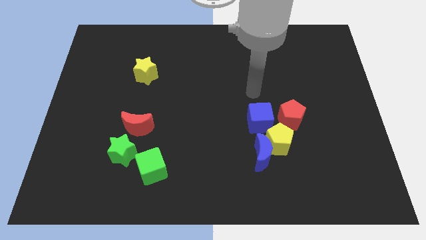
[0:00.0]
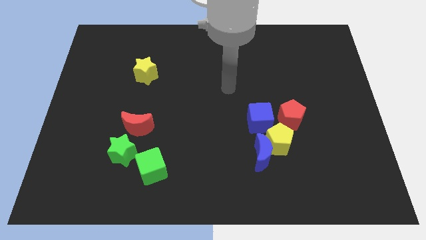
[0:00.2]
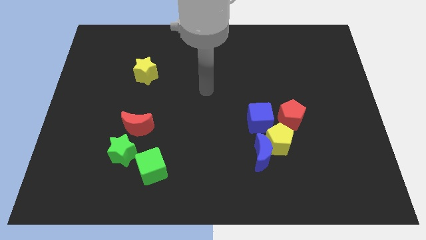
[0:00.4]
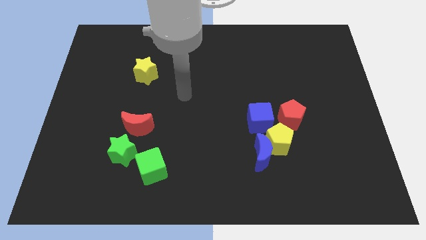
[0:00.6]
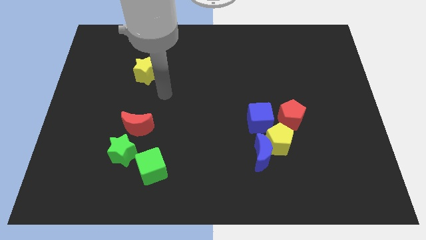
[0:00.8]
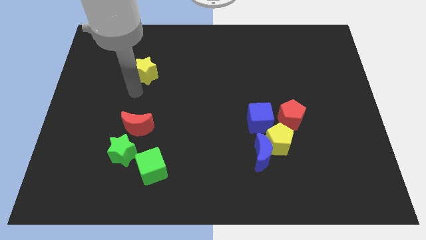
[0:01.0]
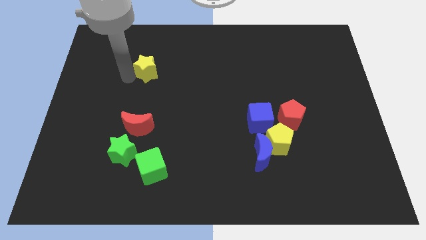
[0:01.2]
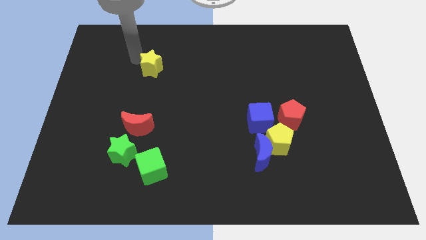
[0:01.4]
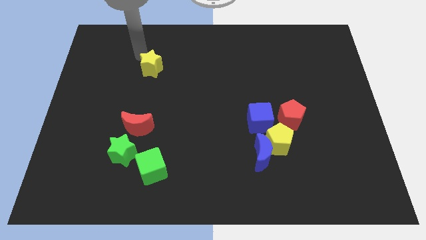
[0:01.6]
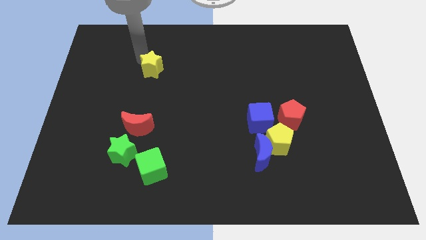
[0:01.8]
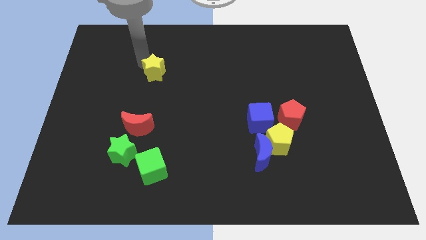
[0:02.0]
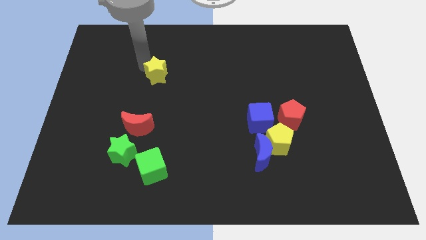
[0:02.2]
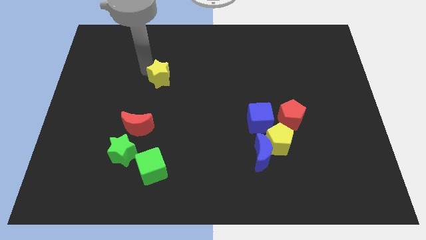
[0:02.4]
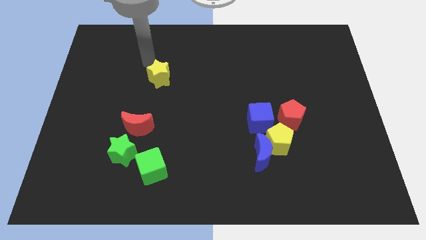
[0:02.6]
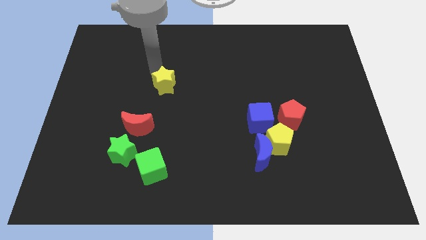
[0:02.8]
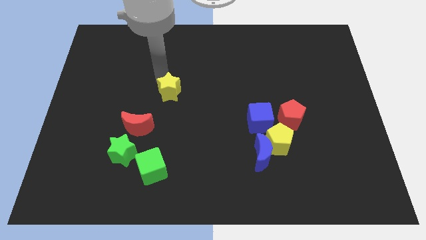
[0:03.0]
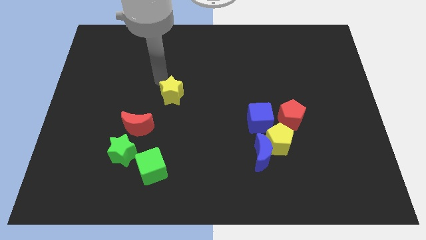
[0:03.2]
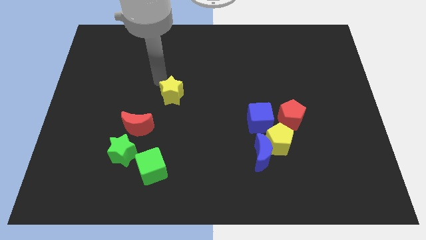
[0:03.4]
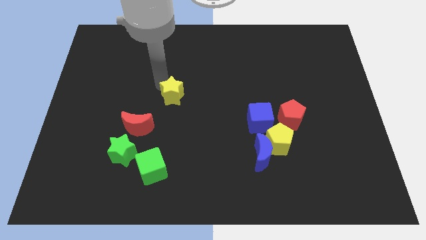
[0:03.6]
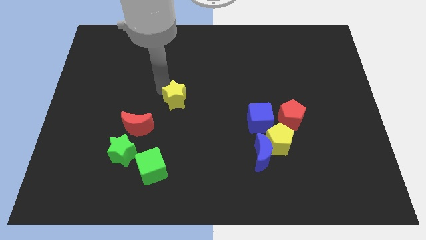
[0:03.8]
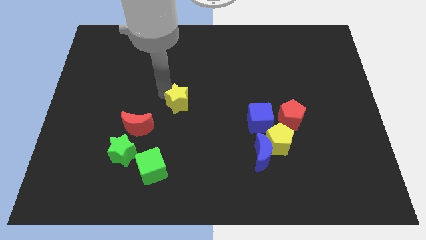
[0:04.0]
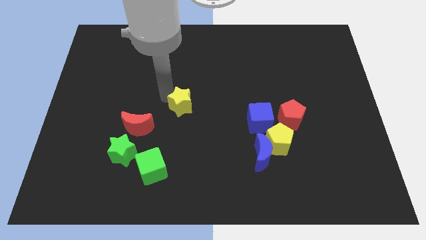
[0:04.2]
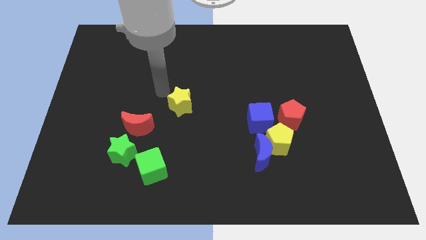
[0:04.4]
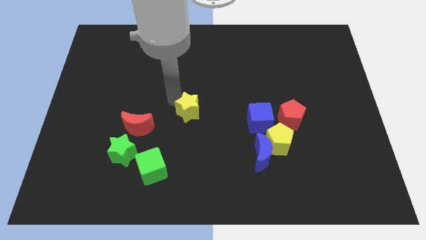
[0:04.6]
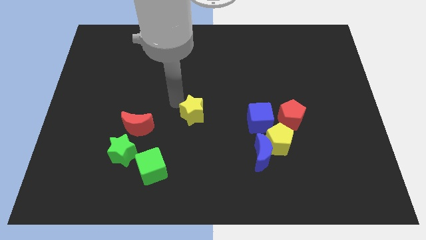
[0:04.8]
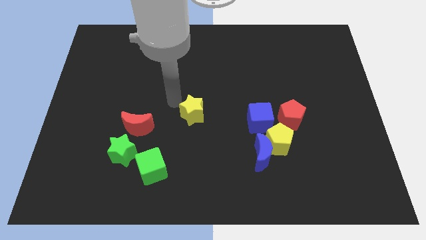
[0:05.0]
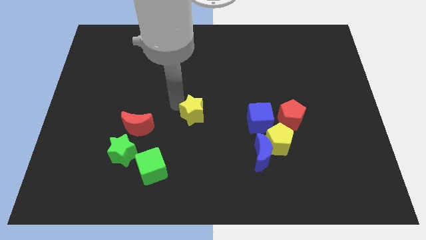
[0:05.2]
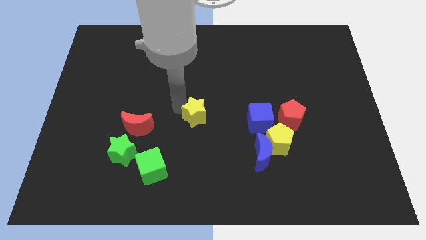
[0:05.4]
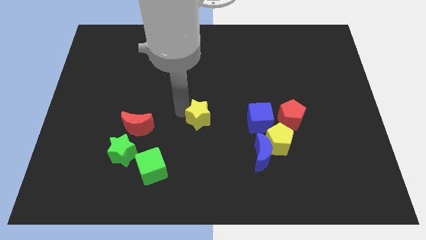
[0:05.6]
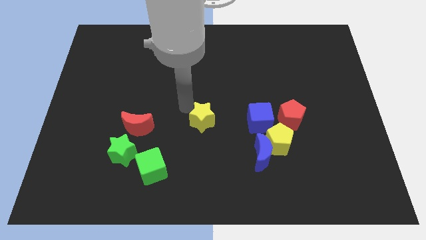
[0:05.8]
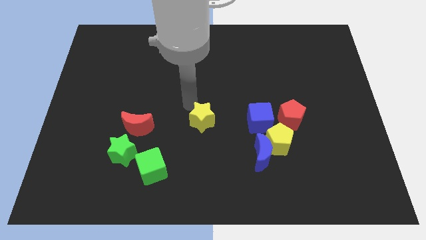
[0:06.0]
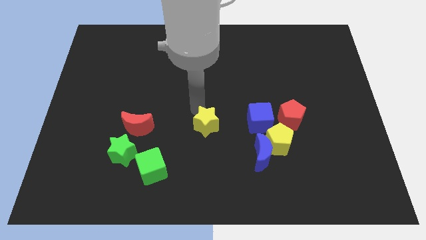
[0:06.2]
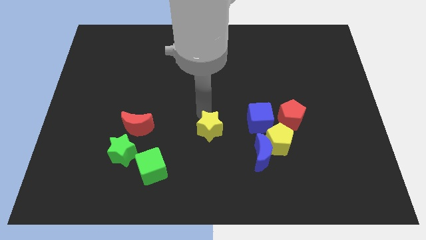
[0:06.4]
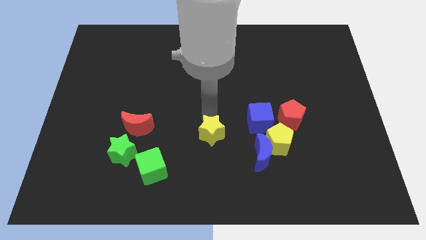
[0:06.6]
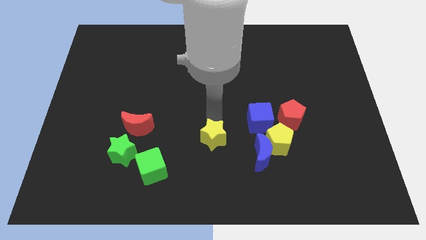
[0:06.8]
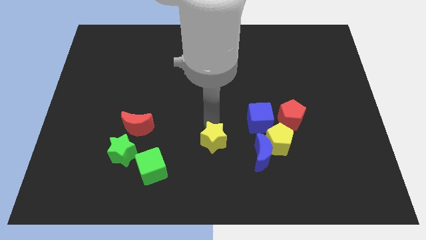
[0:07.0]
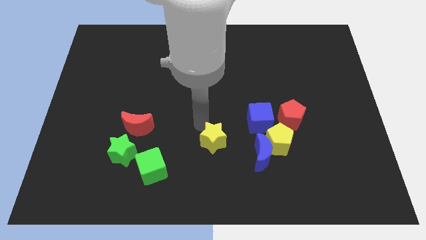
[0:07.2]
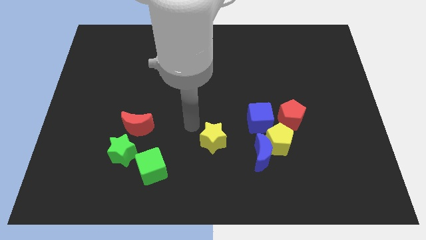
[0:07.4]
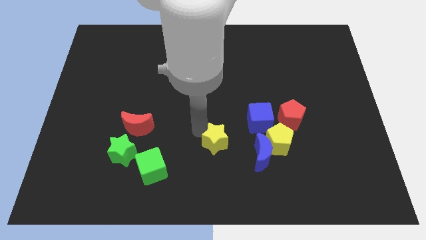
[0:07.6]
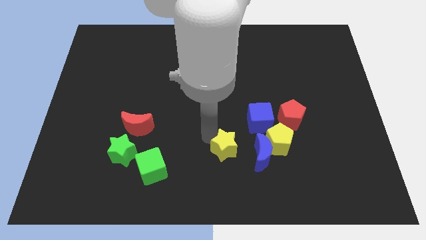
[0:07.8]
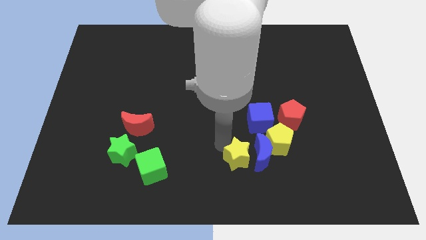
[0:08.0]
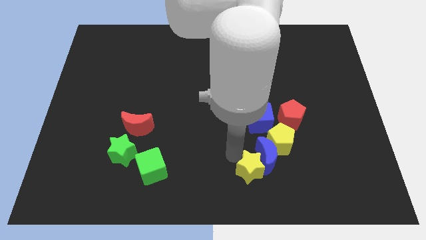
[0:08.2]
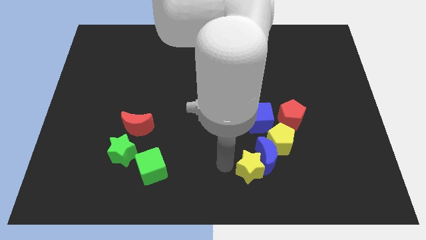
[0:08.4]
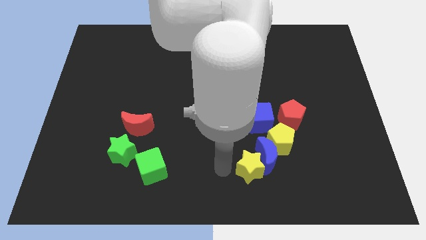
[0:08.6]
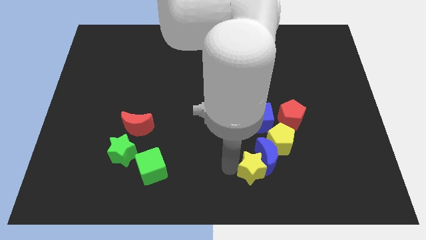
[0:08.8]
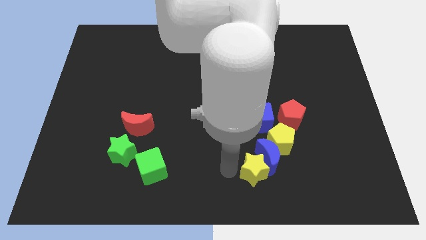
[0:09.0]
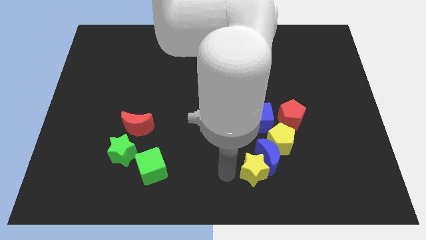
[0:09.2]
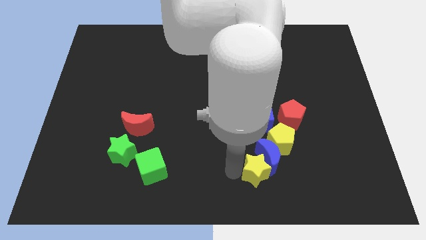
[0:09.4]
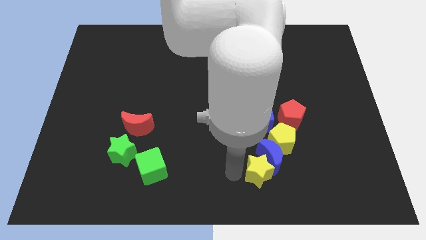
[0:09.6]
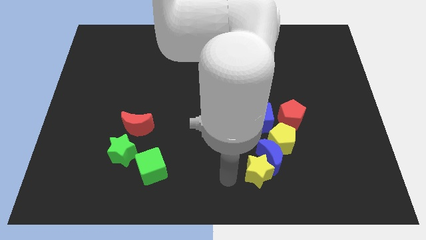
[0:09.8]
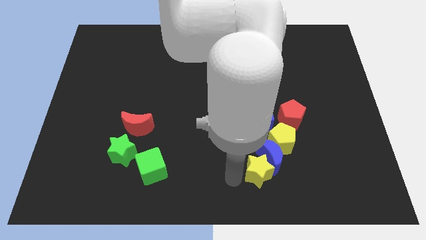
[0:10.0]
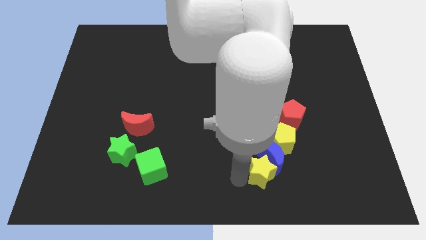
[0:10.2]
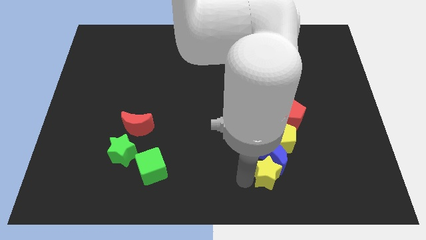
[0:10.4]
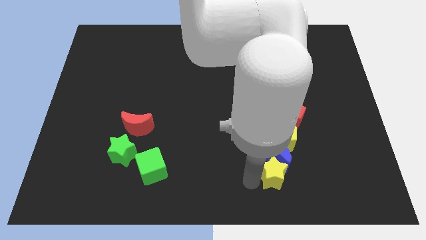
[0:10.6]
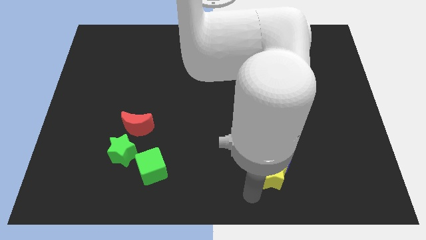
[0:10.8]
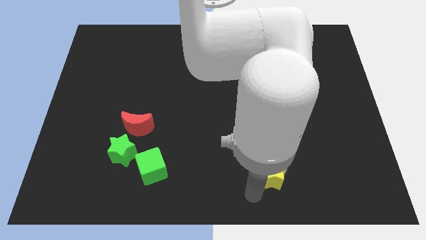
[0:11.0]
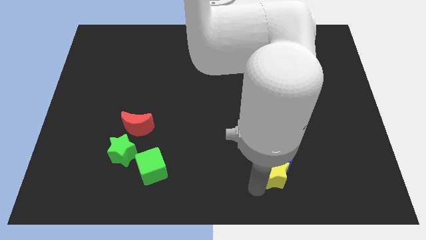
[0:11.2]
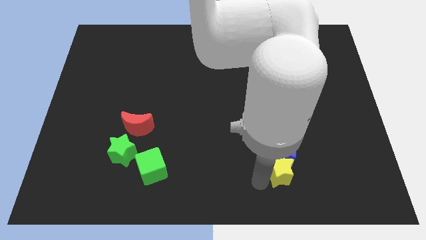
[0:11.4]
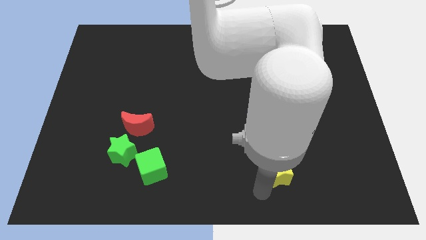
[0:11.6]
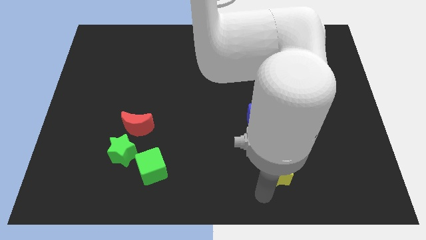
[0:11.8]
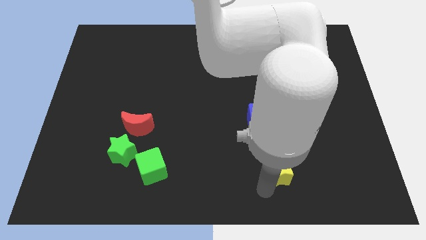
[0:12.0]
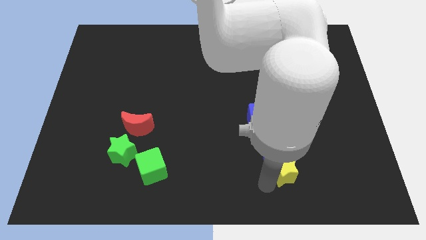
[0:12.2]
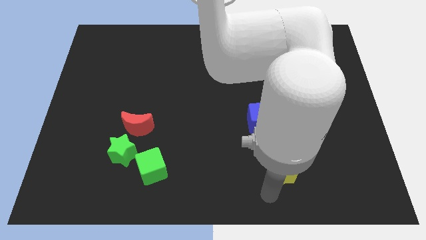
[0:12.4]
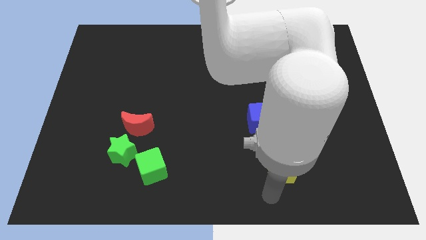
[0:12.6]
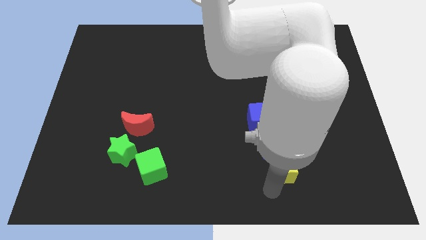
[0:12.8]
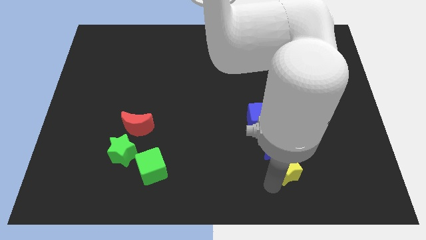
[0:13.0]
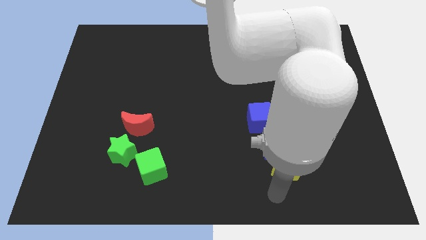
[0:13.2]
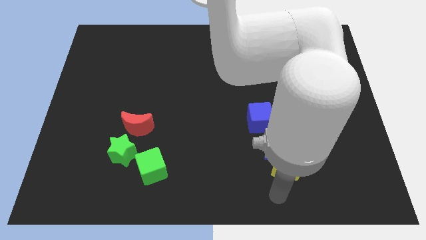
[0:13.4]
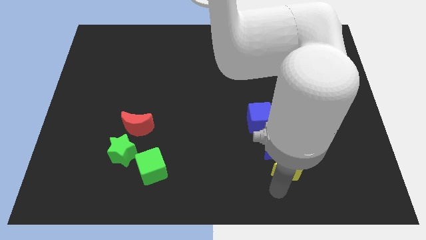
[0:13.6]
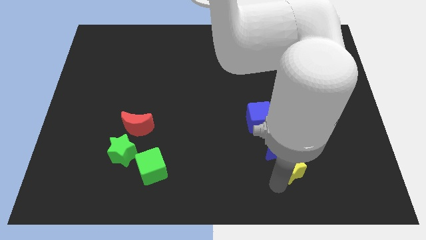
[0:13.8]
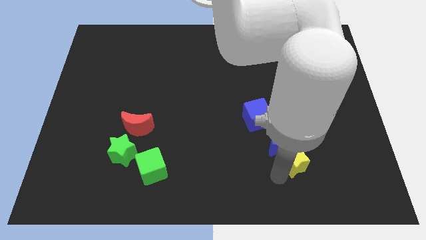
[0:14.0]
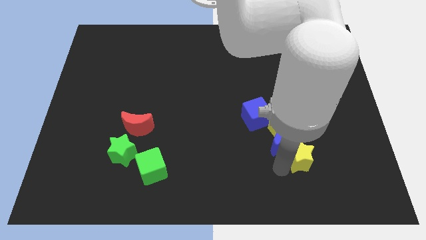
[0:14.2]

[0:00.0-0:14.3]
move the yellow star to the right of the blue moon
